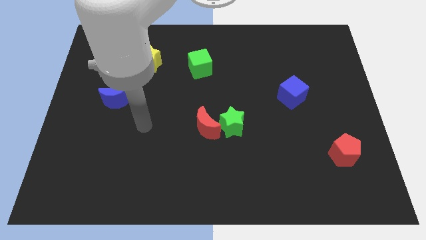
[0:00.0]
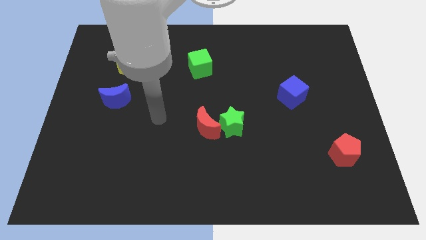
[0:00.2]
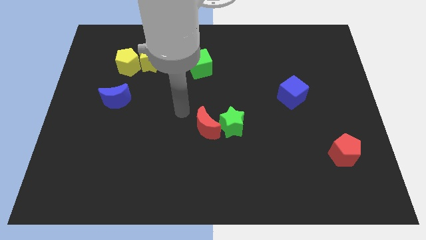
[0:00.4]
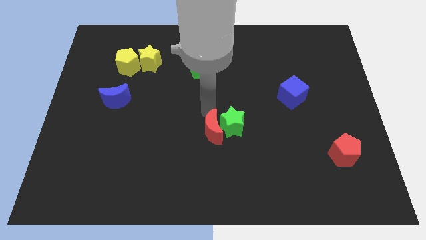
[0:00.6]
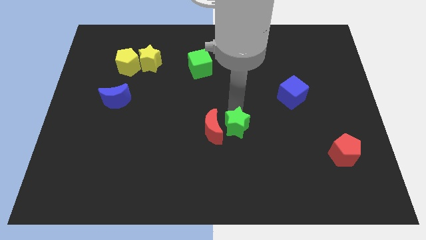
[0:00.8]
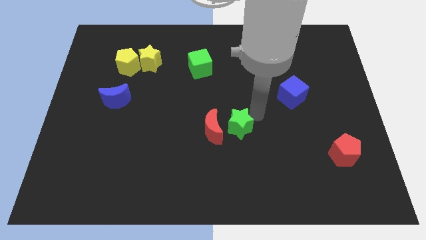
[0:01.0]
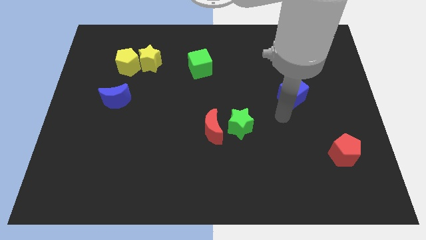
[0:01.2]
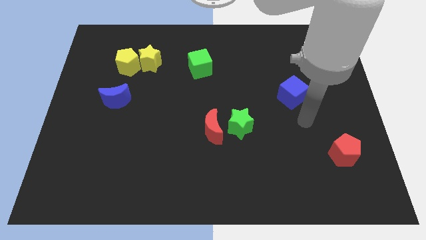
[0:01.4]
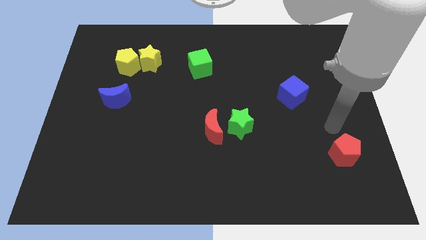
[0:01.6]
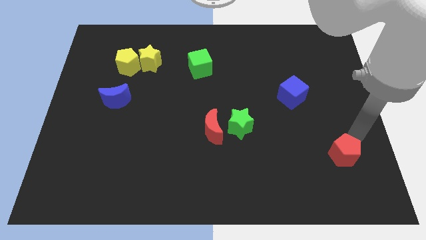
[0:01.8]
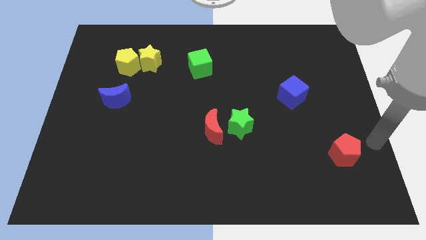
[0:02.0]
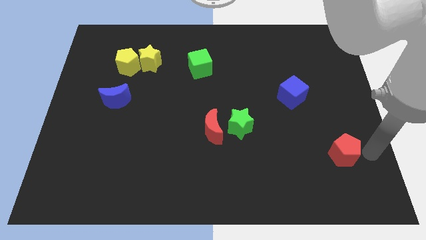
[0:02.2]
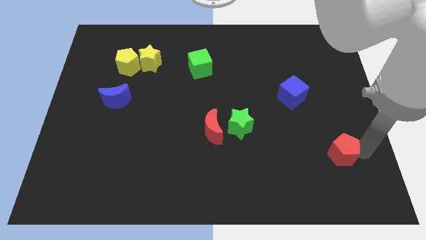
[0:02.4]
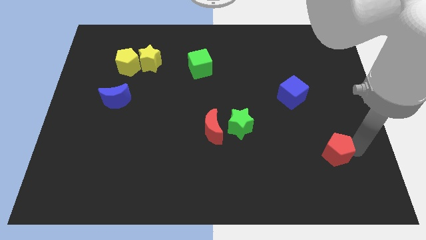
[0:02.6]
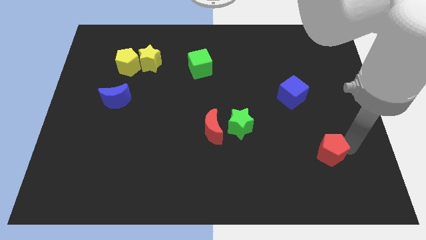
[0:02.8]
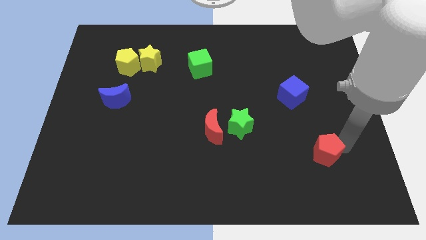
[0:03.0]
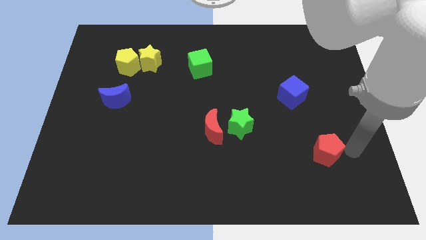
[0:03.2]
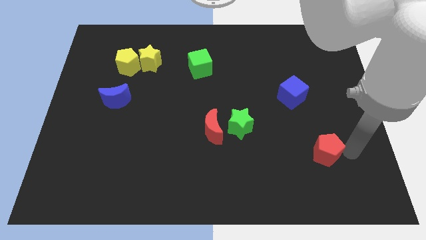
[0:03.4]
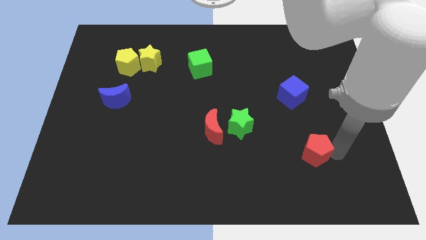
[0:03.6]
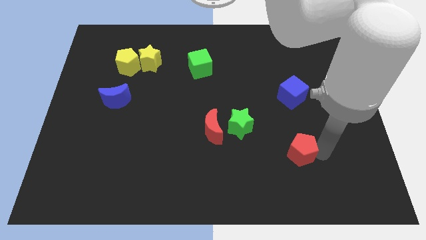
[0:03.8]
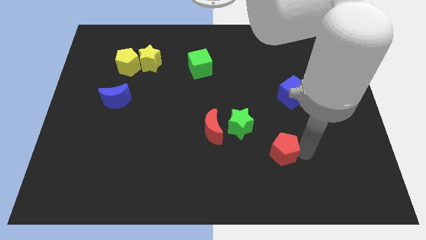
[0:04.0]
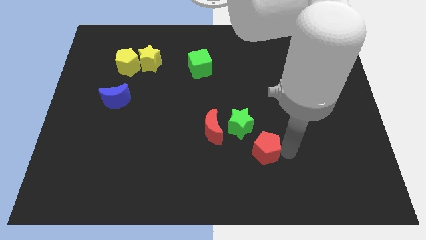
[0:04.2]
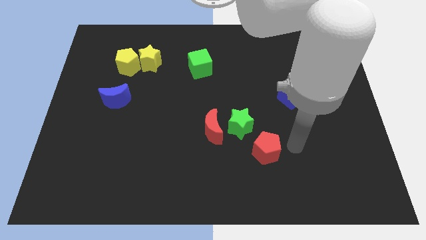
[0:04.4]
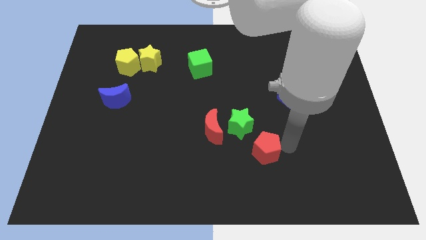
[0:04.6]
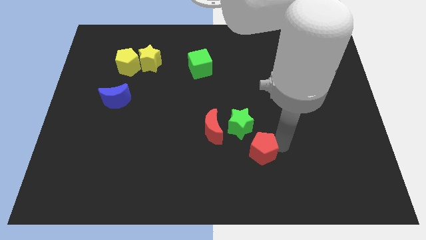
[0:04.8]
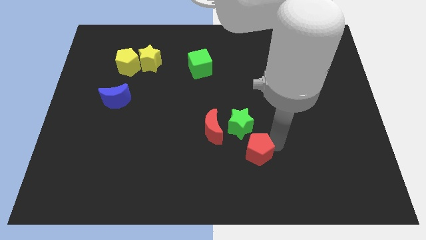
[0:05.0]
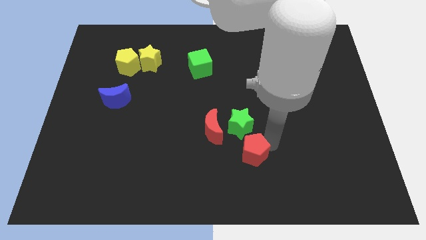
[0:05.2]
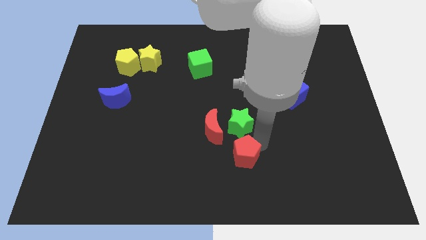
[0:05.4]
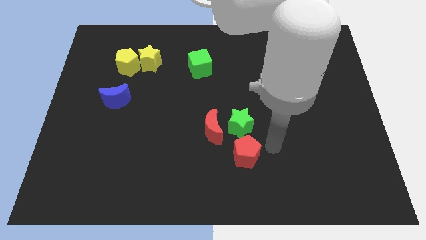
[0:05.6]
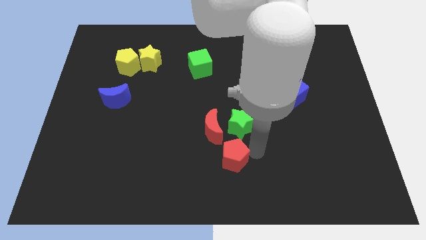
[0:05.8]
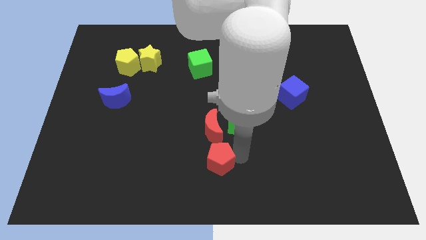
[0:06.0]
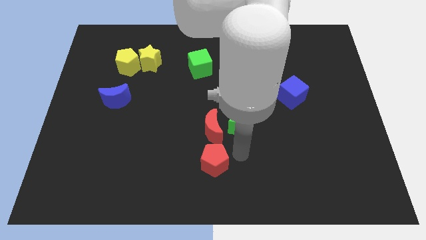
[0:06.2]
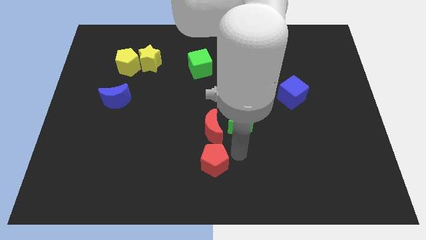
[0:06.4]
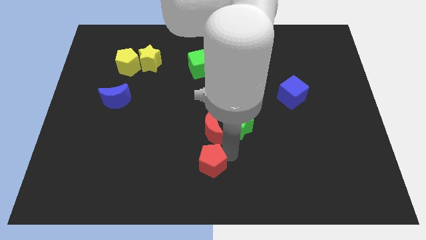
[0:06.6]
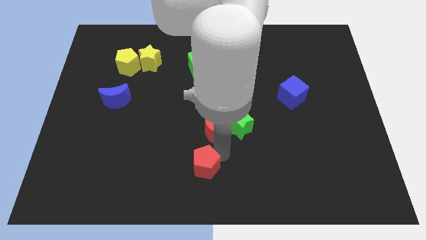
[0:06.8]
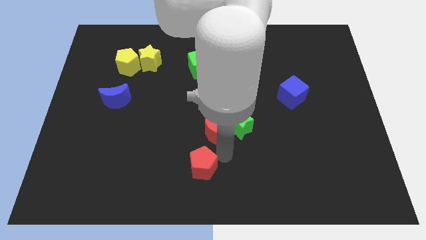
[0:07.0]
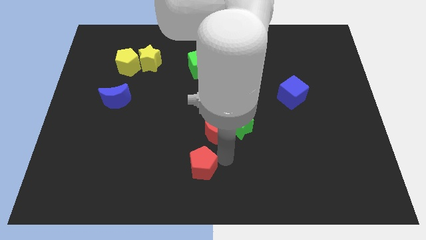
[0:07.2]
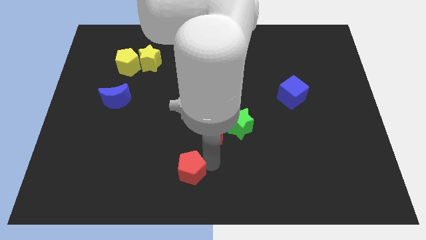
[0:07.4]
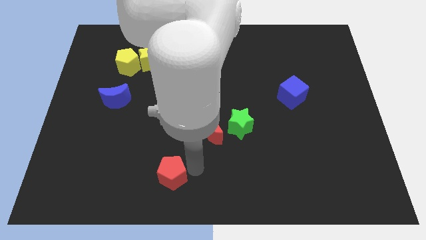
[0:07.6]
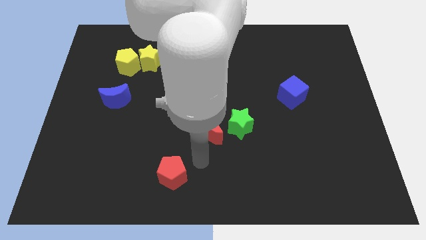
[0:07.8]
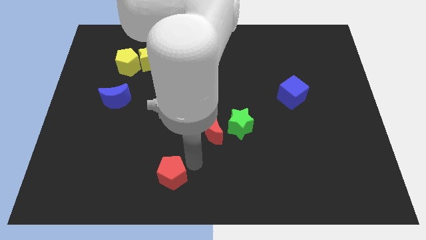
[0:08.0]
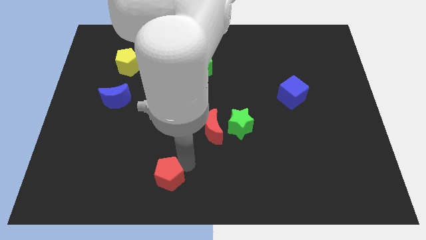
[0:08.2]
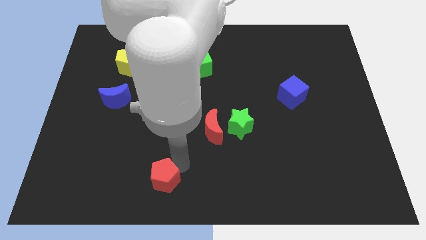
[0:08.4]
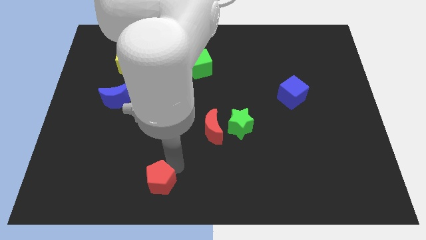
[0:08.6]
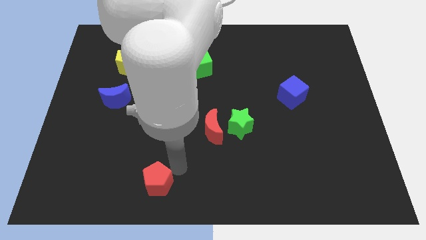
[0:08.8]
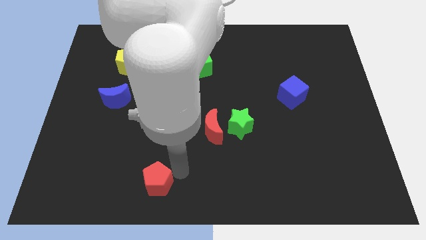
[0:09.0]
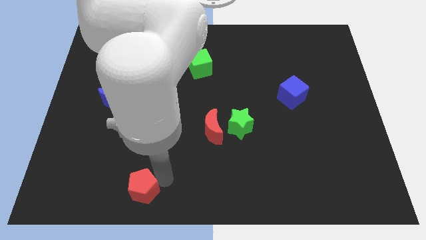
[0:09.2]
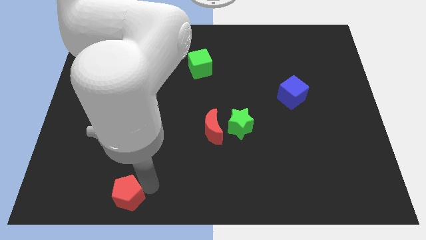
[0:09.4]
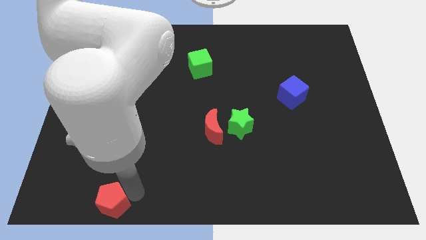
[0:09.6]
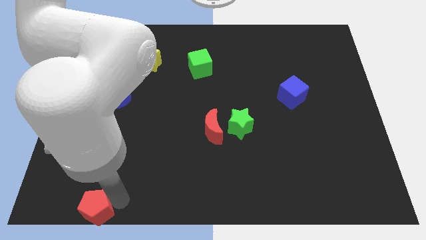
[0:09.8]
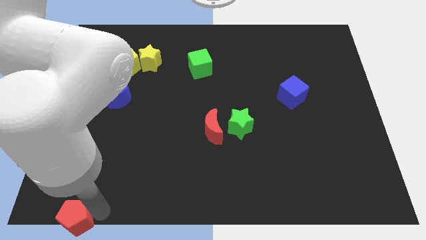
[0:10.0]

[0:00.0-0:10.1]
push the red pentagon to the bottom left

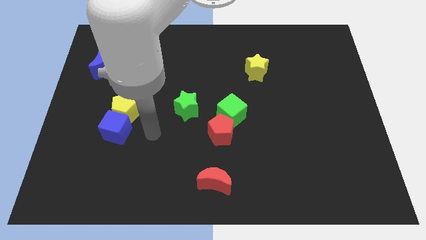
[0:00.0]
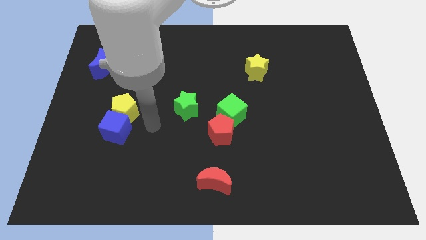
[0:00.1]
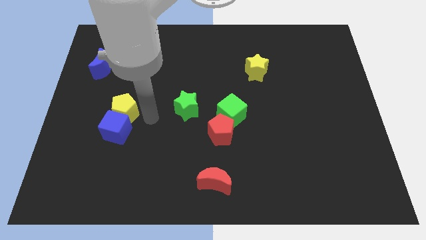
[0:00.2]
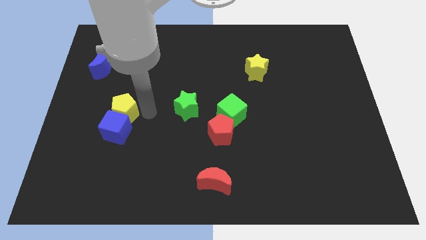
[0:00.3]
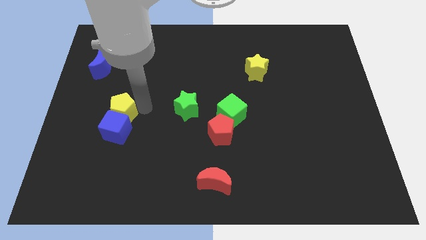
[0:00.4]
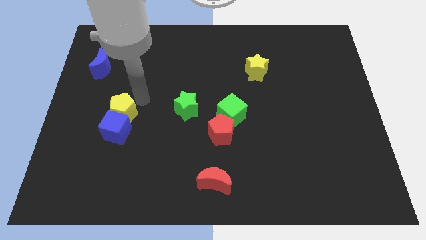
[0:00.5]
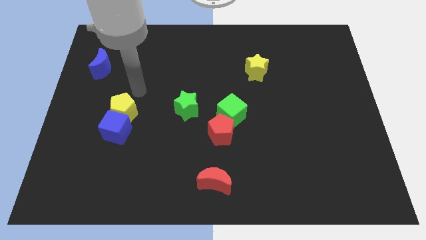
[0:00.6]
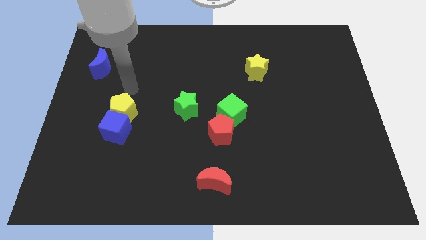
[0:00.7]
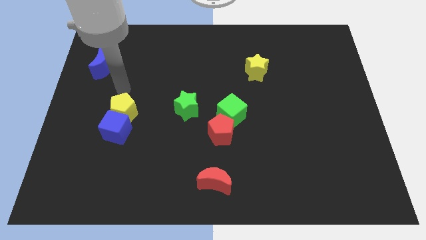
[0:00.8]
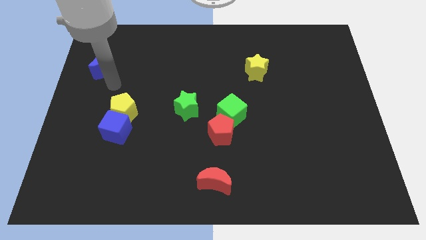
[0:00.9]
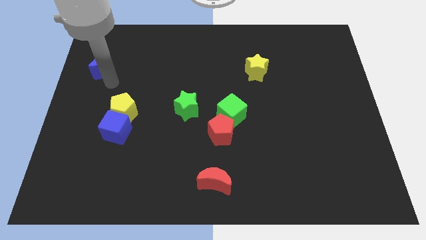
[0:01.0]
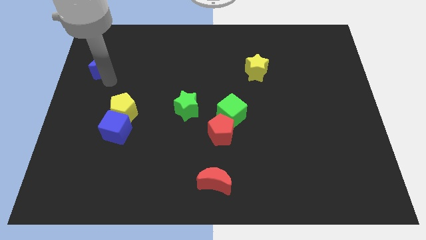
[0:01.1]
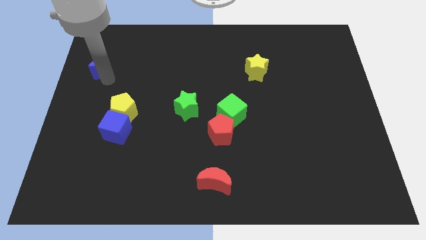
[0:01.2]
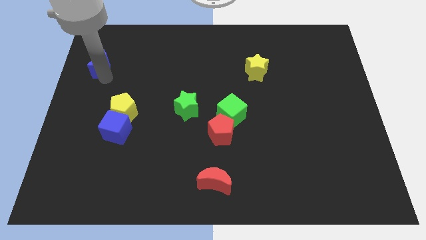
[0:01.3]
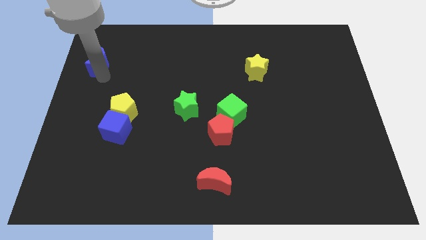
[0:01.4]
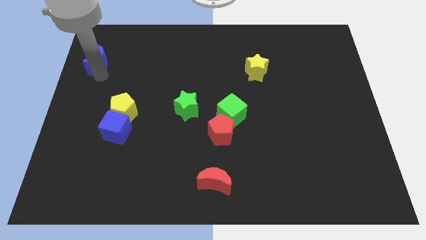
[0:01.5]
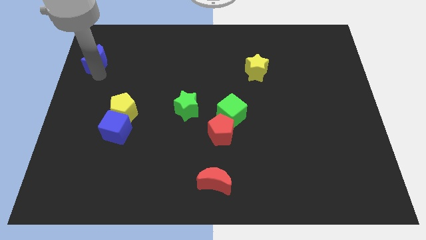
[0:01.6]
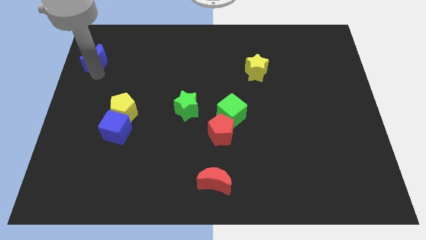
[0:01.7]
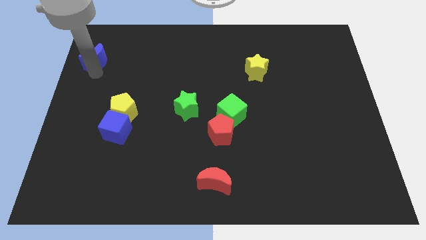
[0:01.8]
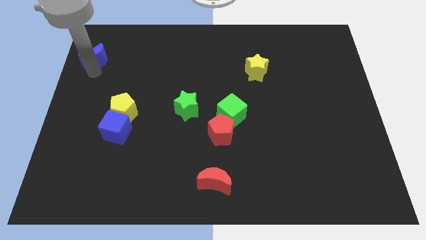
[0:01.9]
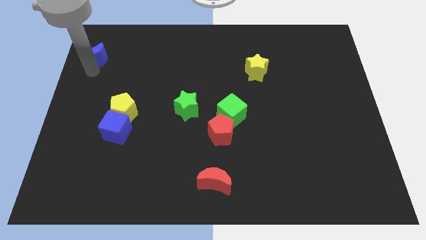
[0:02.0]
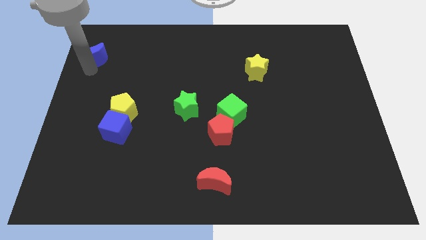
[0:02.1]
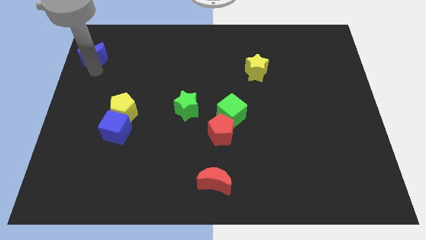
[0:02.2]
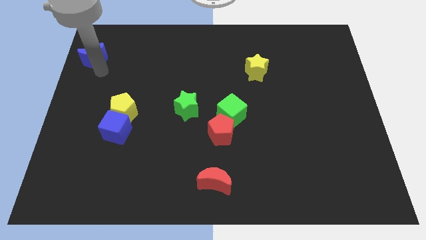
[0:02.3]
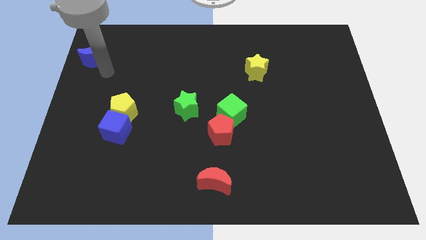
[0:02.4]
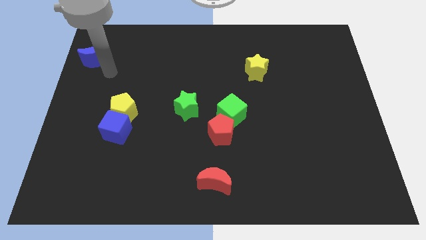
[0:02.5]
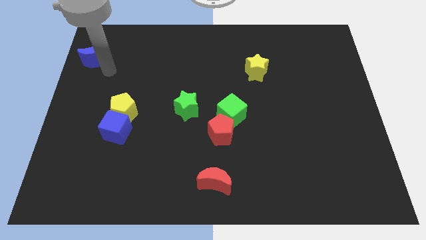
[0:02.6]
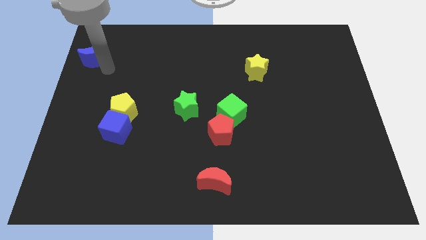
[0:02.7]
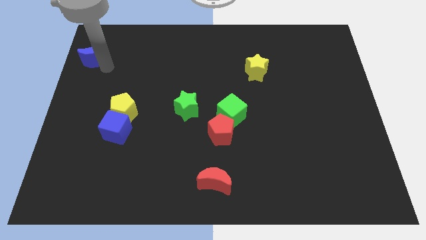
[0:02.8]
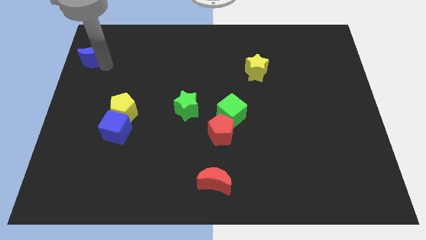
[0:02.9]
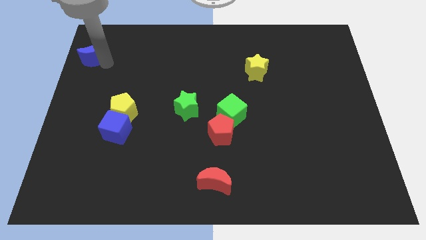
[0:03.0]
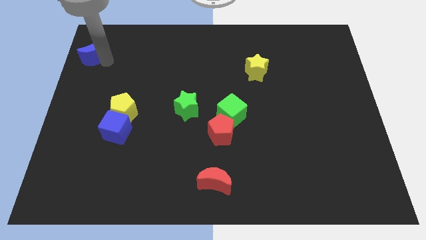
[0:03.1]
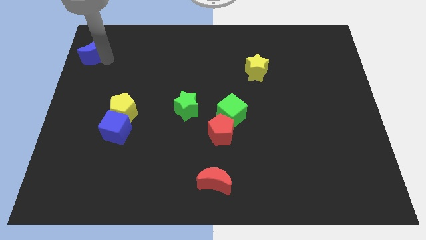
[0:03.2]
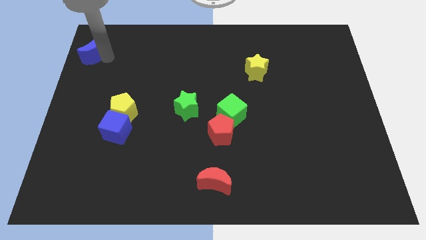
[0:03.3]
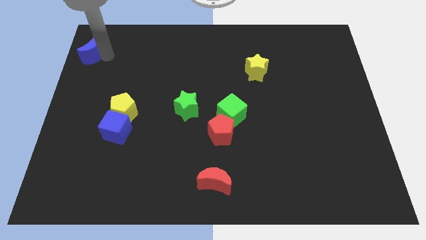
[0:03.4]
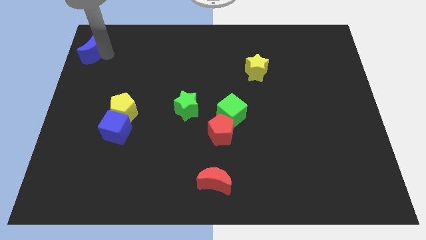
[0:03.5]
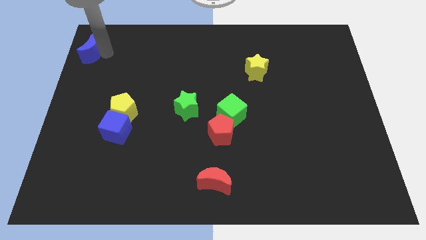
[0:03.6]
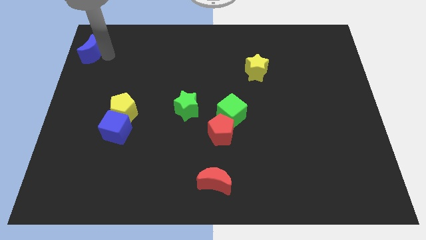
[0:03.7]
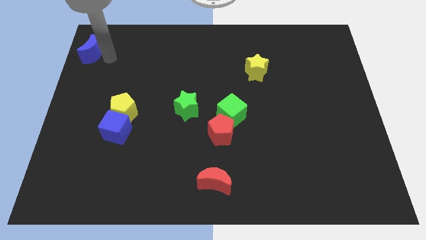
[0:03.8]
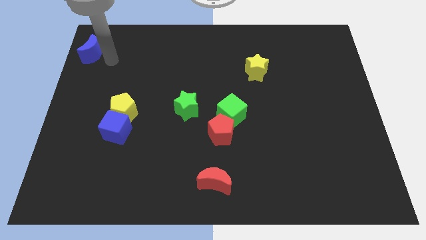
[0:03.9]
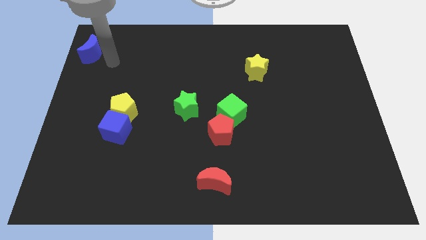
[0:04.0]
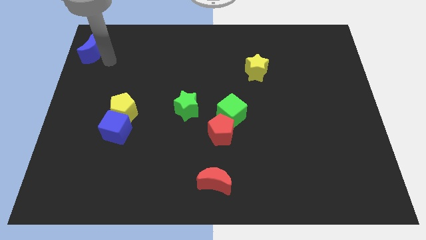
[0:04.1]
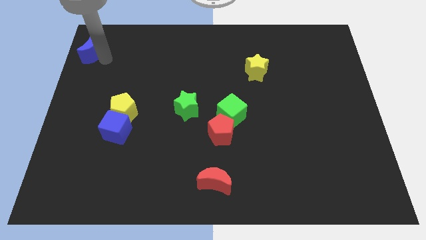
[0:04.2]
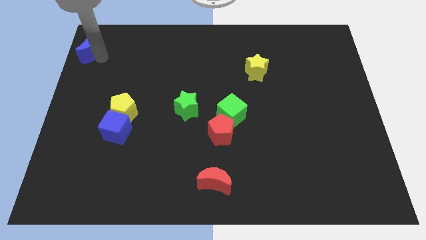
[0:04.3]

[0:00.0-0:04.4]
move the blue moon to the top left corner
